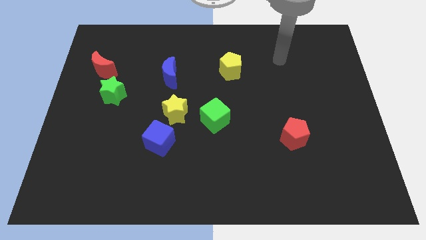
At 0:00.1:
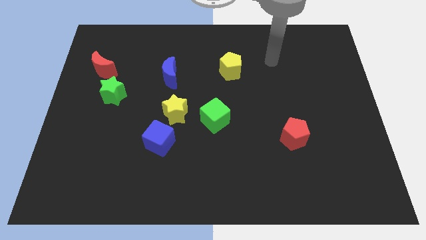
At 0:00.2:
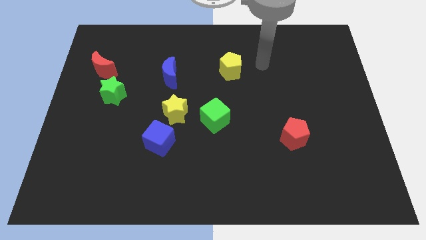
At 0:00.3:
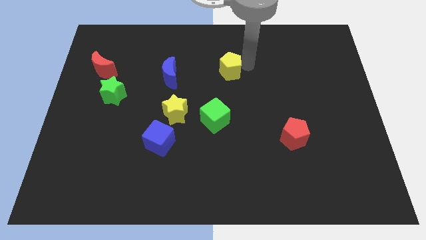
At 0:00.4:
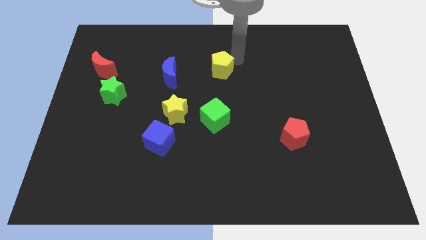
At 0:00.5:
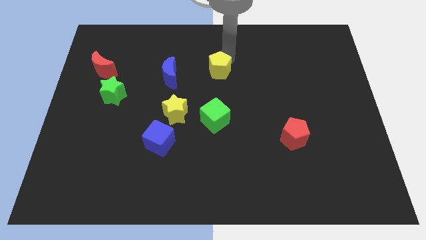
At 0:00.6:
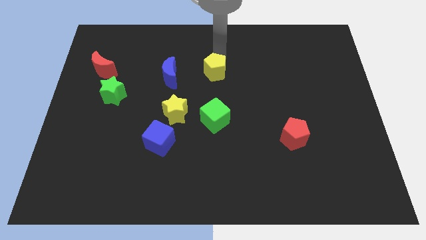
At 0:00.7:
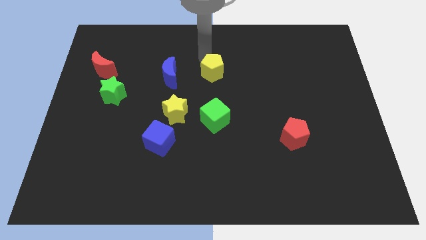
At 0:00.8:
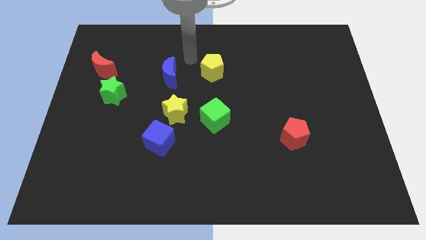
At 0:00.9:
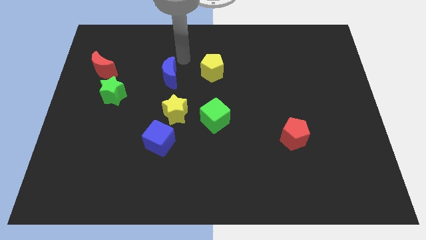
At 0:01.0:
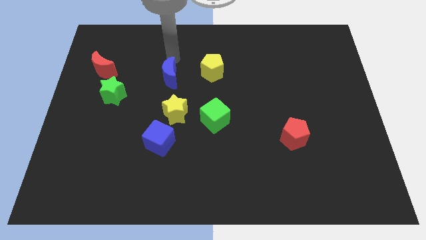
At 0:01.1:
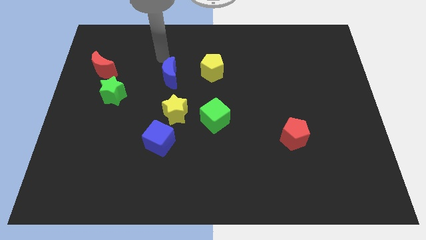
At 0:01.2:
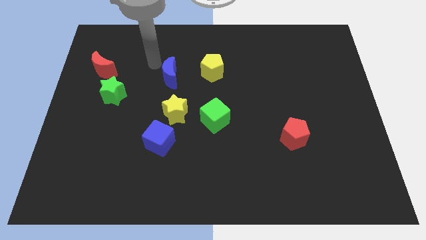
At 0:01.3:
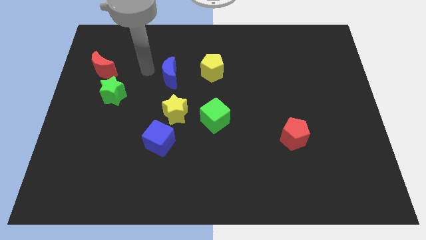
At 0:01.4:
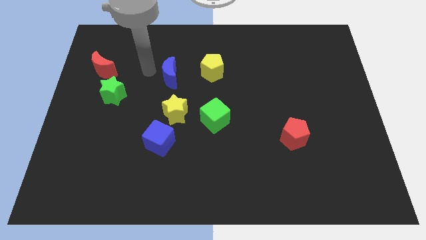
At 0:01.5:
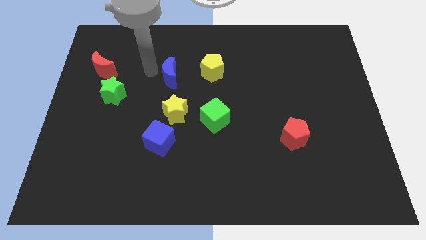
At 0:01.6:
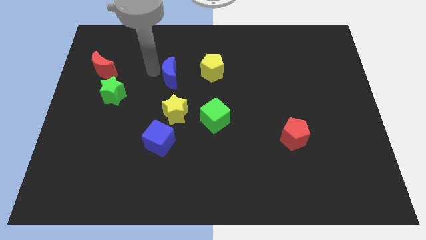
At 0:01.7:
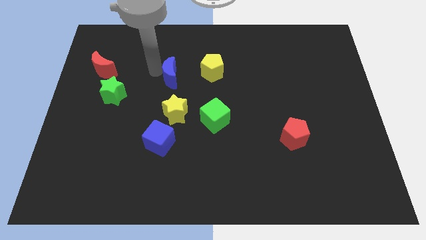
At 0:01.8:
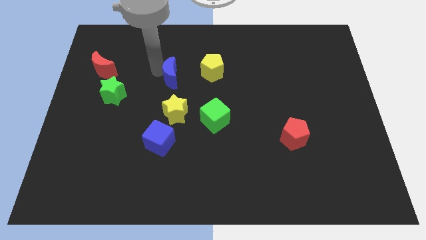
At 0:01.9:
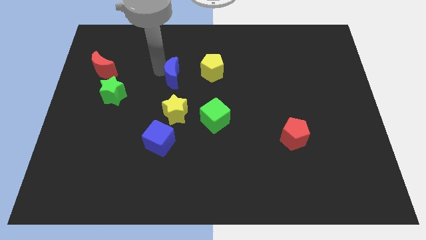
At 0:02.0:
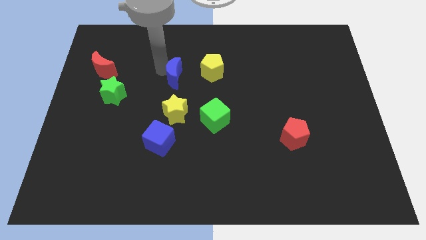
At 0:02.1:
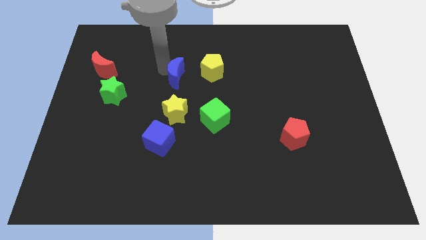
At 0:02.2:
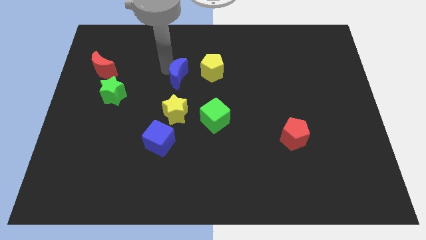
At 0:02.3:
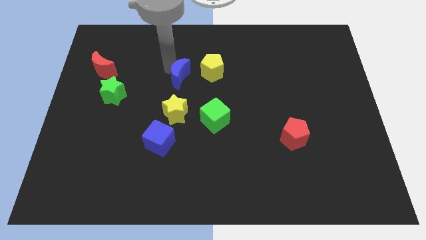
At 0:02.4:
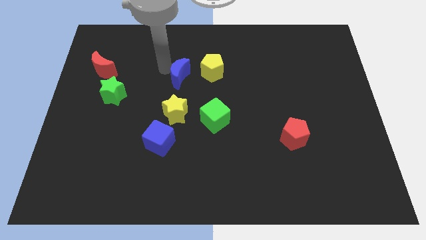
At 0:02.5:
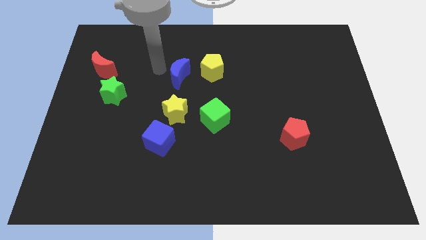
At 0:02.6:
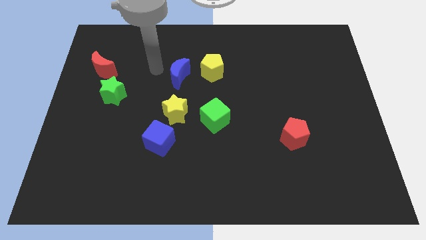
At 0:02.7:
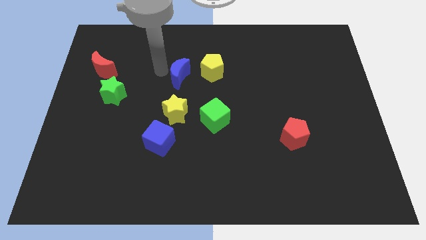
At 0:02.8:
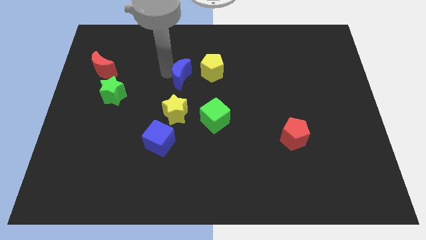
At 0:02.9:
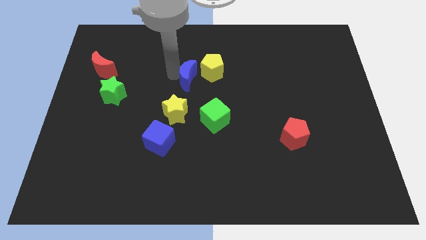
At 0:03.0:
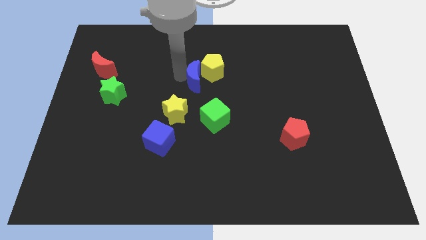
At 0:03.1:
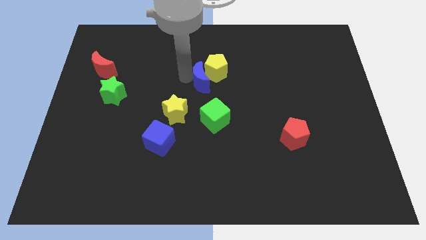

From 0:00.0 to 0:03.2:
slide the blue moon a bit right

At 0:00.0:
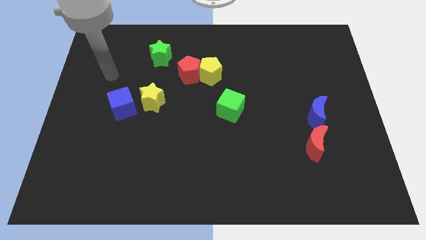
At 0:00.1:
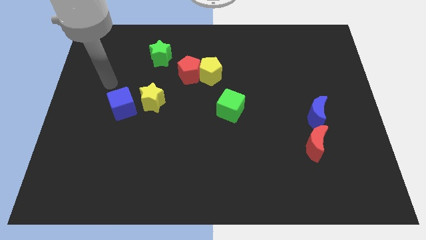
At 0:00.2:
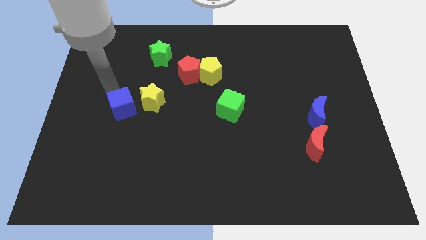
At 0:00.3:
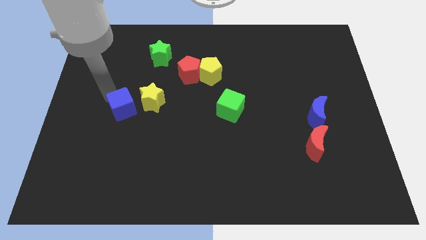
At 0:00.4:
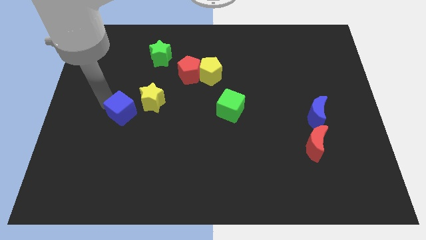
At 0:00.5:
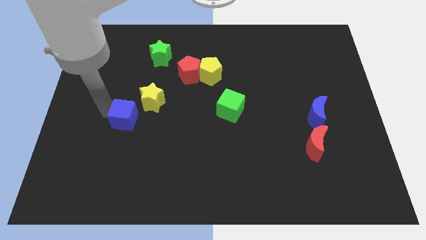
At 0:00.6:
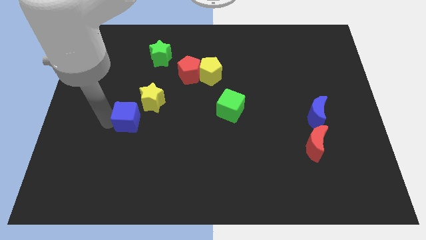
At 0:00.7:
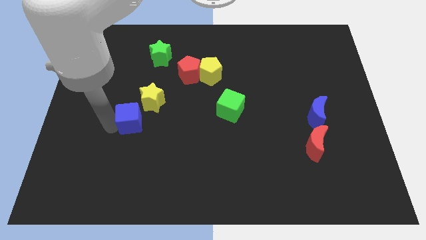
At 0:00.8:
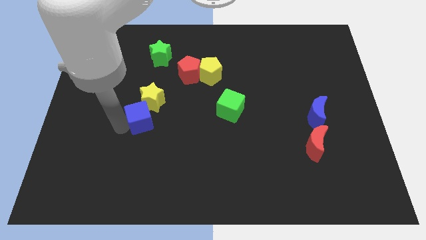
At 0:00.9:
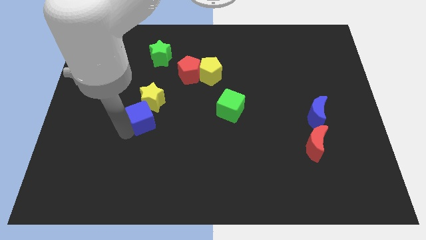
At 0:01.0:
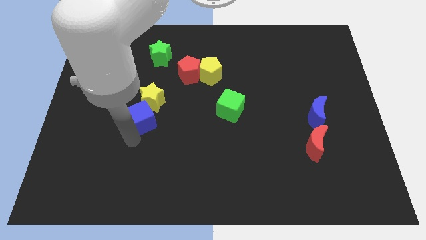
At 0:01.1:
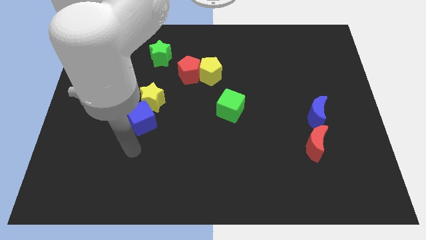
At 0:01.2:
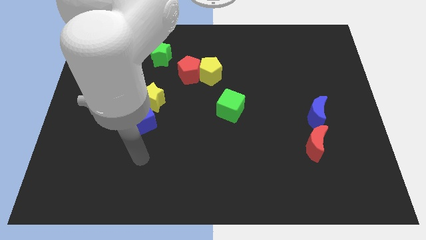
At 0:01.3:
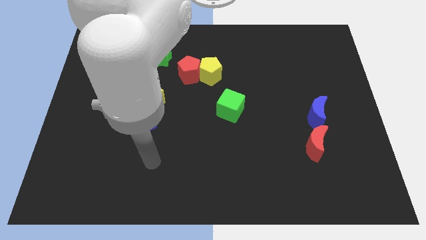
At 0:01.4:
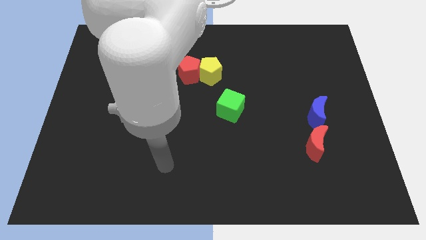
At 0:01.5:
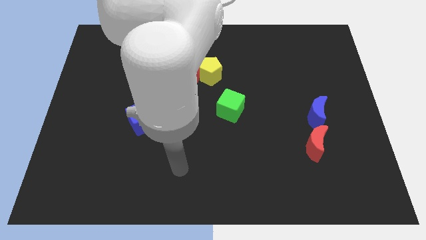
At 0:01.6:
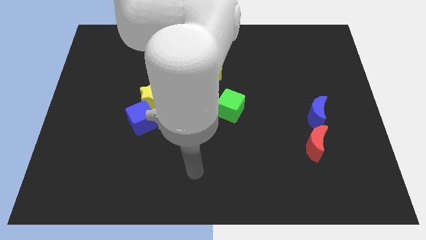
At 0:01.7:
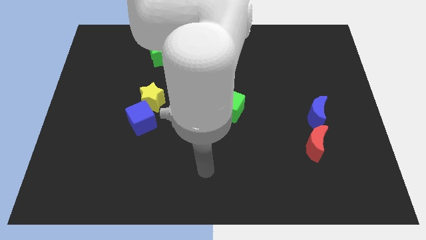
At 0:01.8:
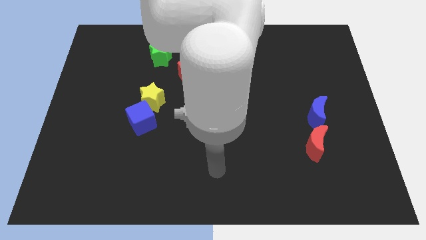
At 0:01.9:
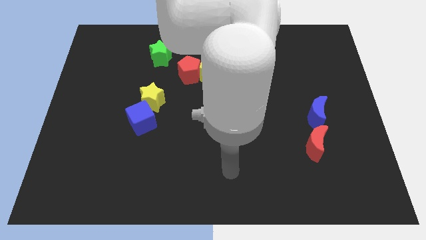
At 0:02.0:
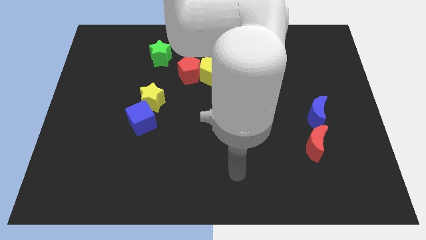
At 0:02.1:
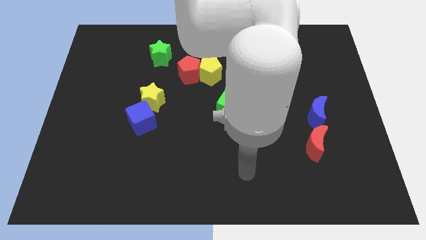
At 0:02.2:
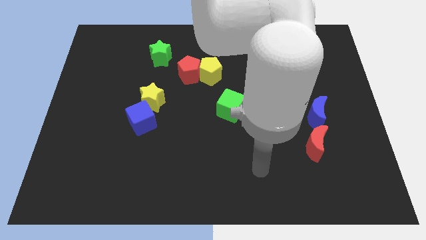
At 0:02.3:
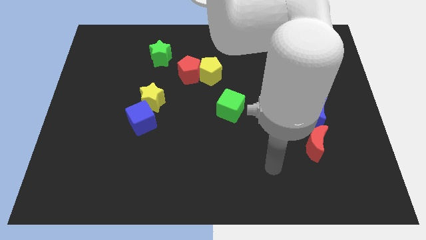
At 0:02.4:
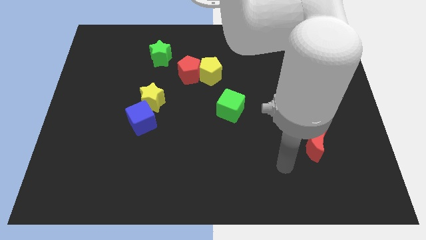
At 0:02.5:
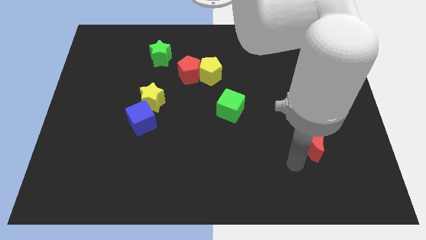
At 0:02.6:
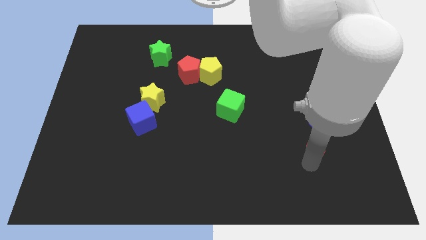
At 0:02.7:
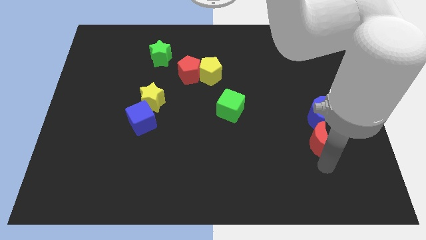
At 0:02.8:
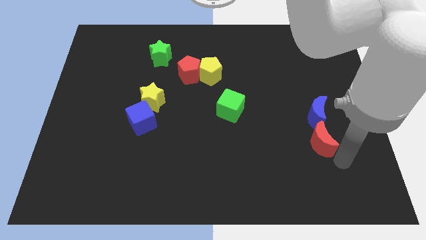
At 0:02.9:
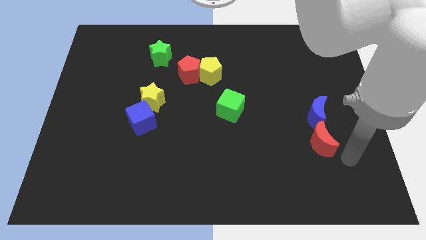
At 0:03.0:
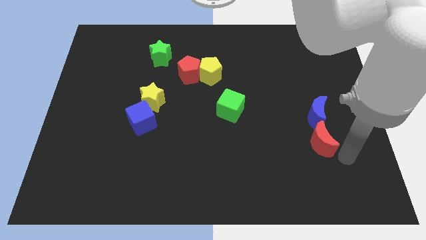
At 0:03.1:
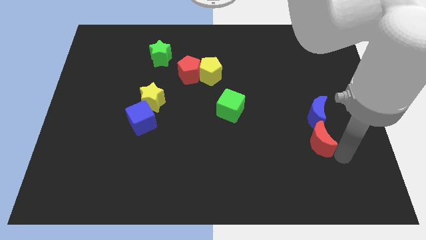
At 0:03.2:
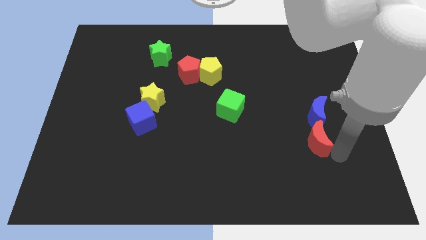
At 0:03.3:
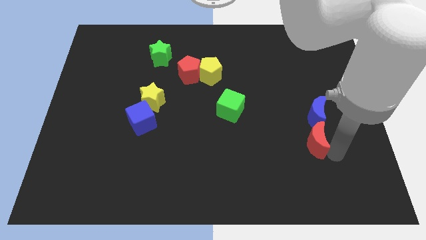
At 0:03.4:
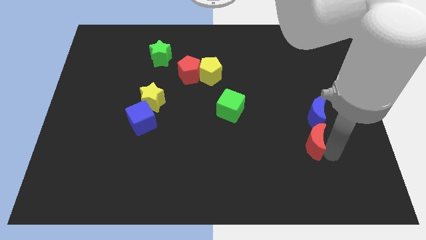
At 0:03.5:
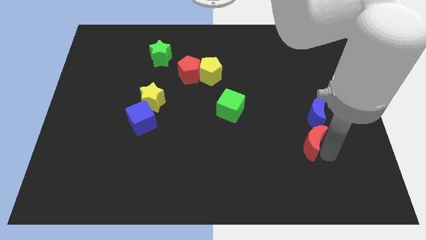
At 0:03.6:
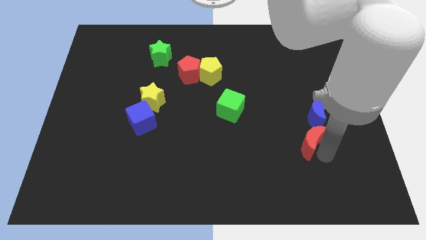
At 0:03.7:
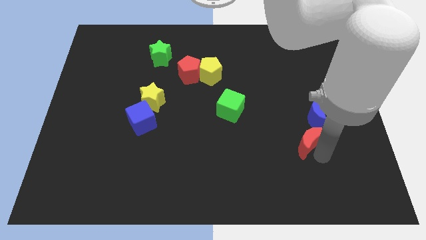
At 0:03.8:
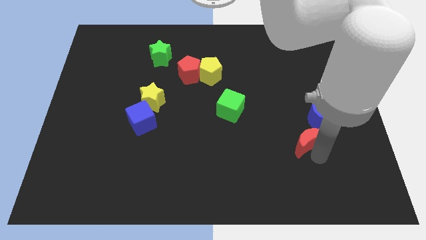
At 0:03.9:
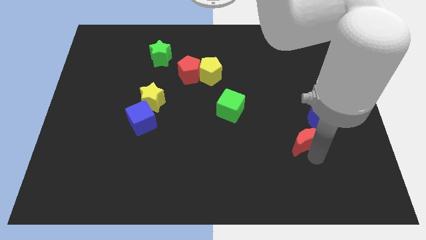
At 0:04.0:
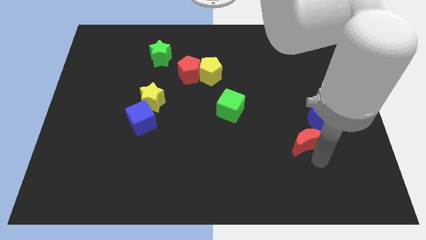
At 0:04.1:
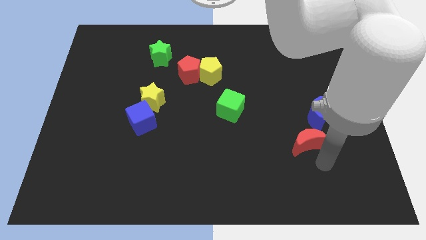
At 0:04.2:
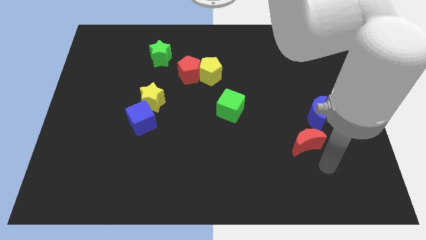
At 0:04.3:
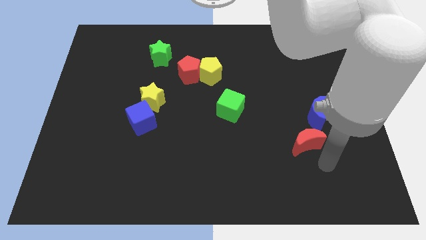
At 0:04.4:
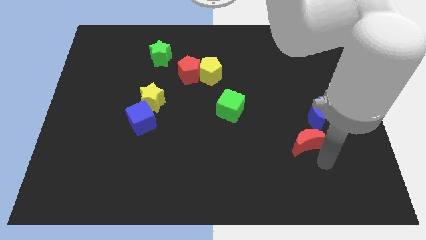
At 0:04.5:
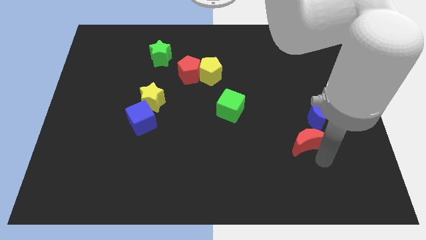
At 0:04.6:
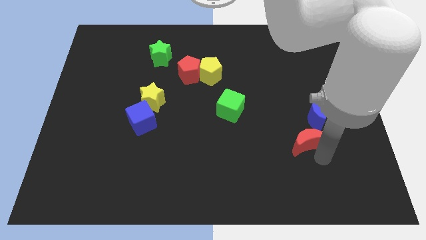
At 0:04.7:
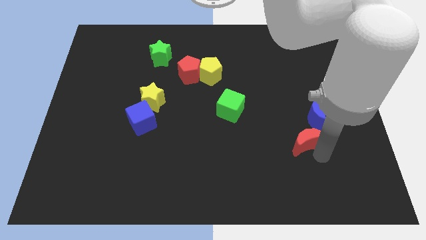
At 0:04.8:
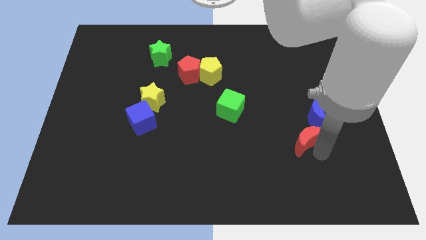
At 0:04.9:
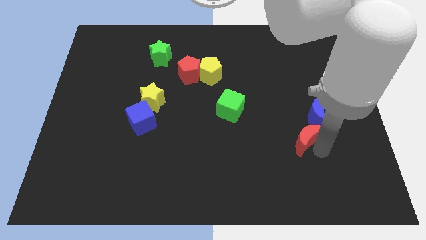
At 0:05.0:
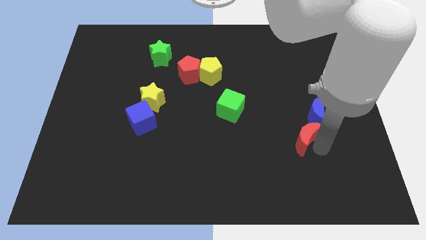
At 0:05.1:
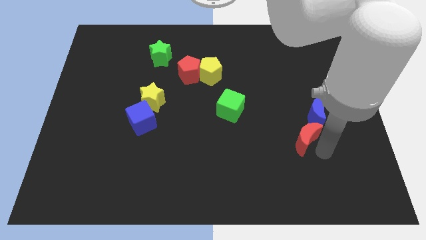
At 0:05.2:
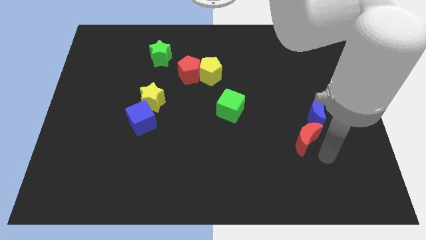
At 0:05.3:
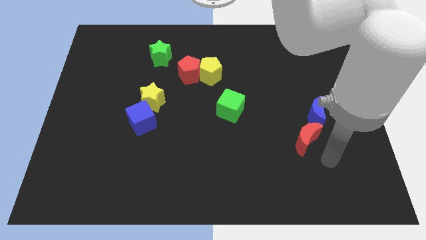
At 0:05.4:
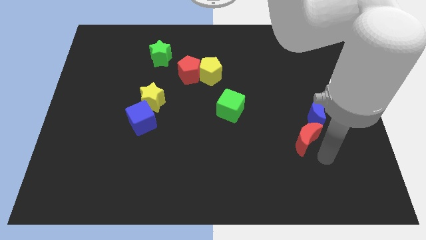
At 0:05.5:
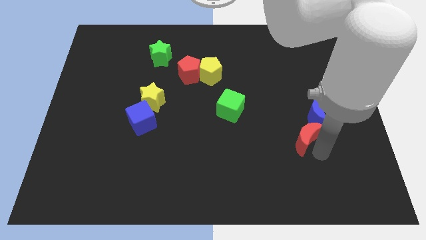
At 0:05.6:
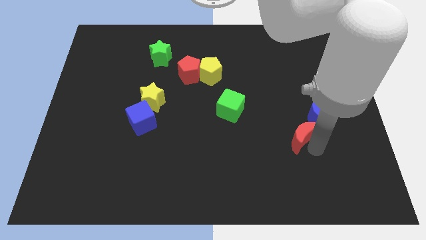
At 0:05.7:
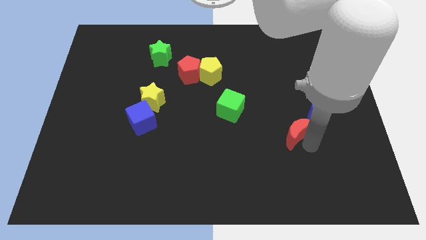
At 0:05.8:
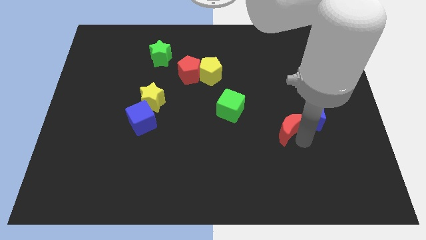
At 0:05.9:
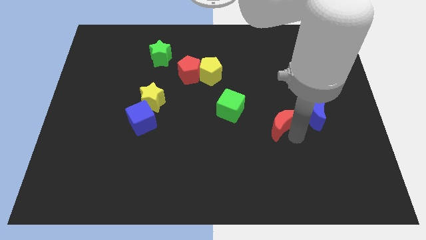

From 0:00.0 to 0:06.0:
slightly move the red moon up and left diagonally
